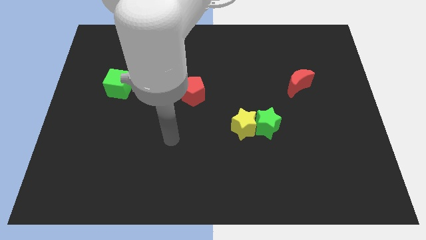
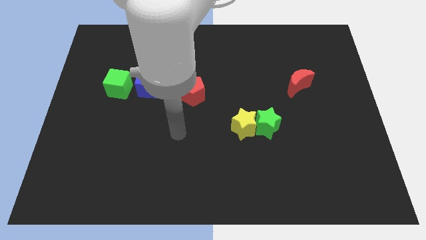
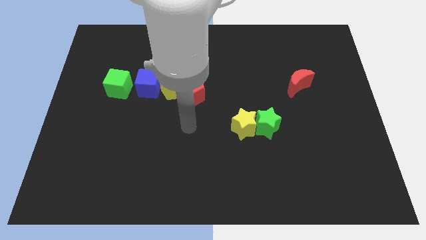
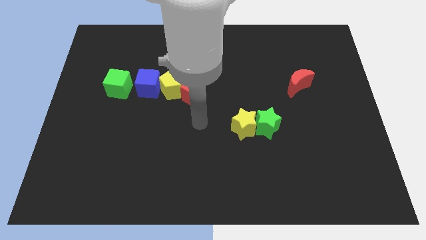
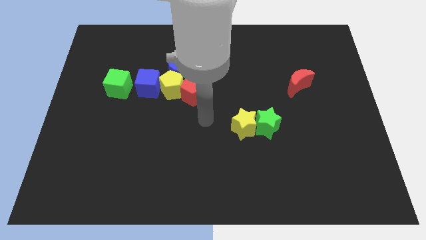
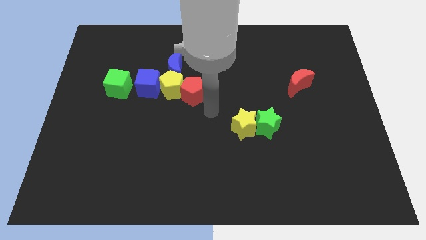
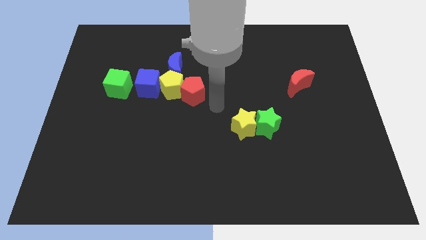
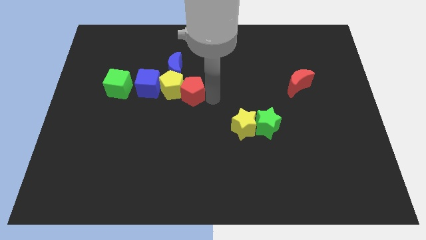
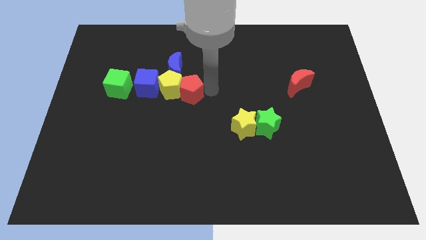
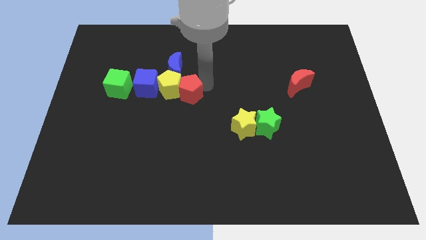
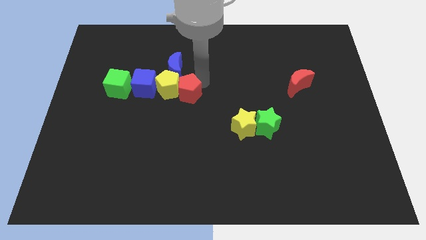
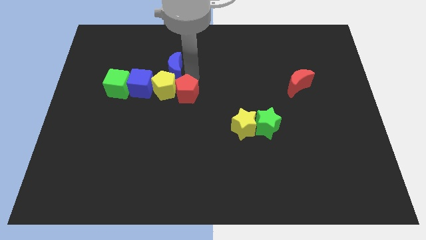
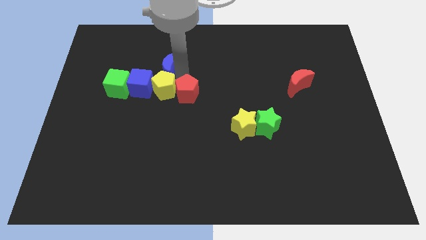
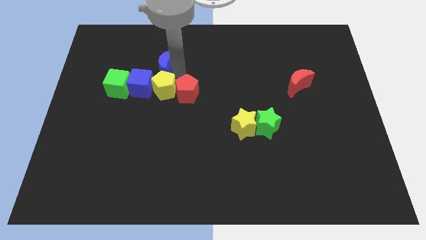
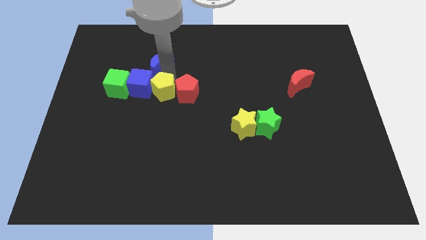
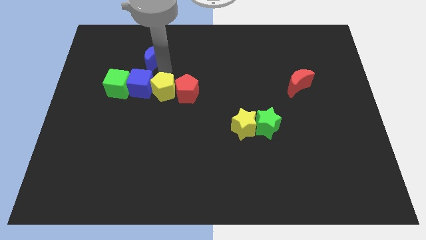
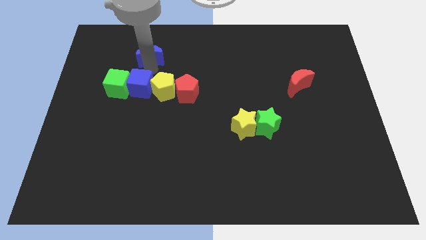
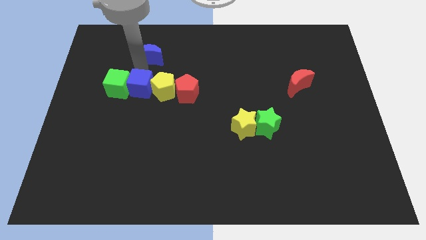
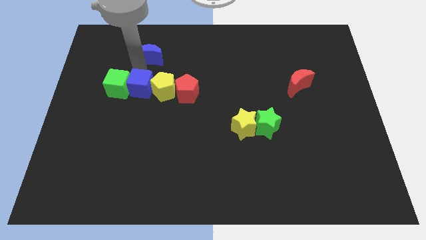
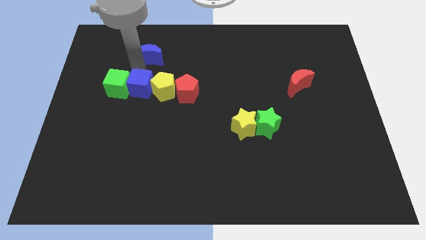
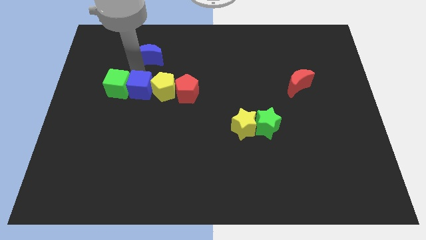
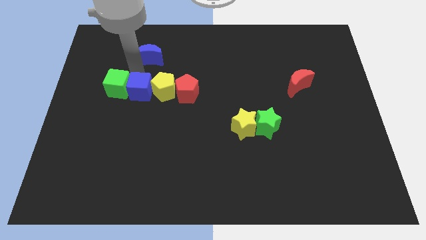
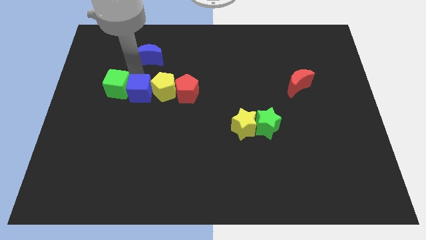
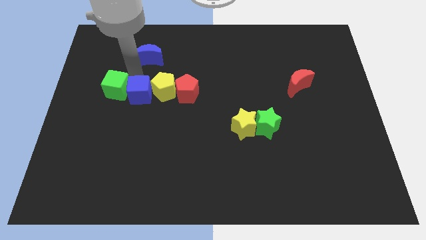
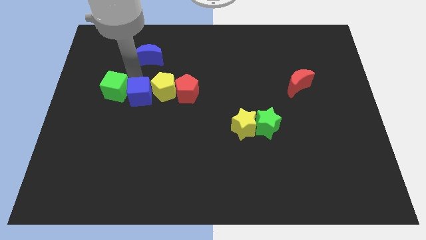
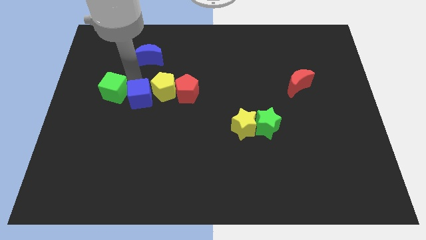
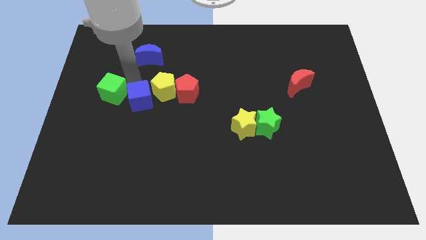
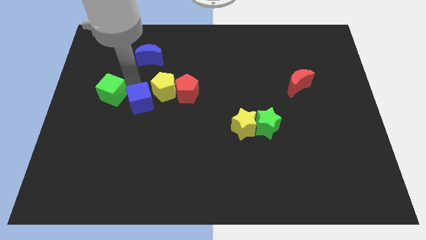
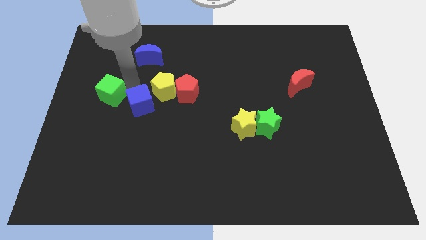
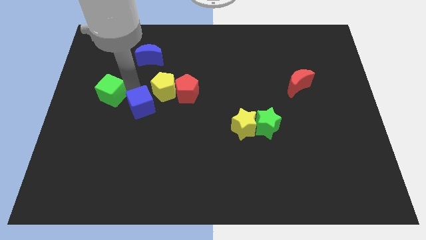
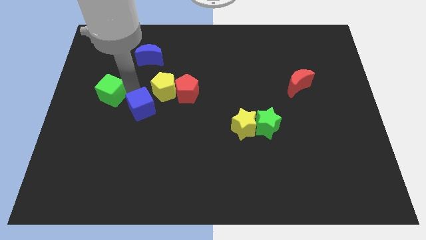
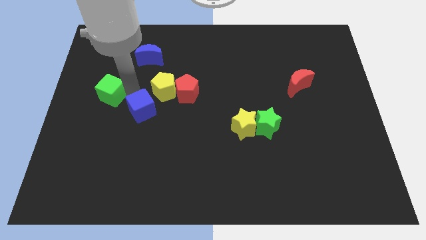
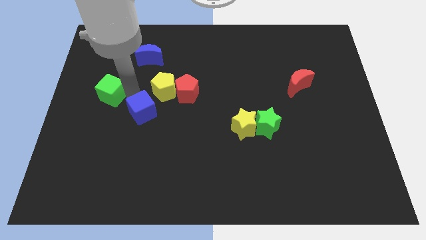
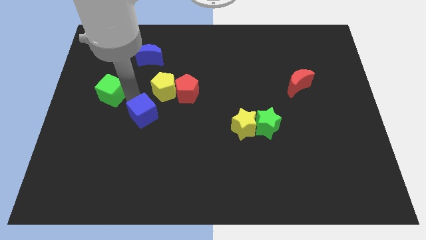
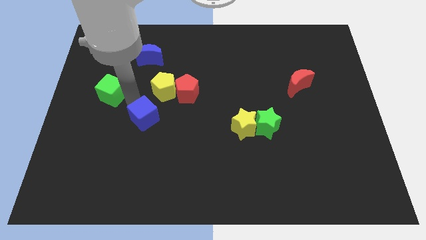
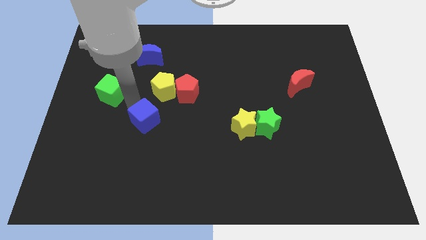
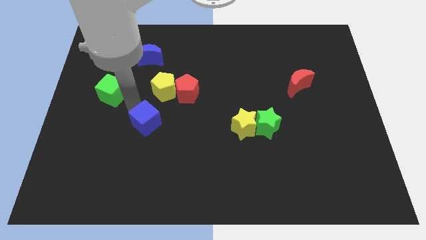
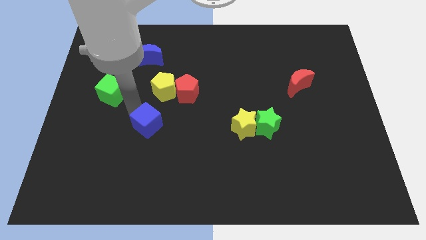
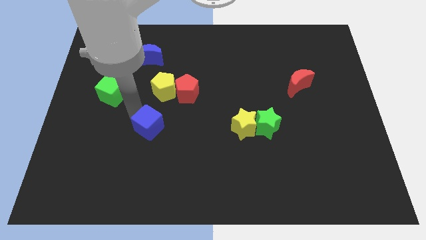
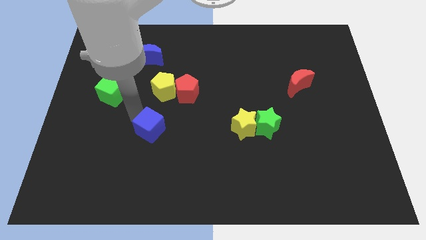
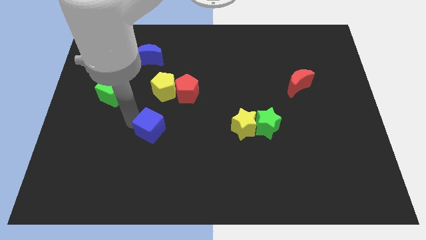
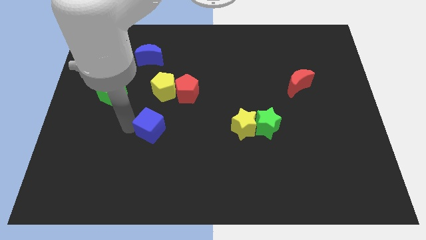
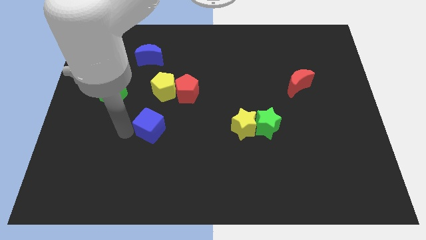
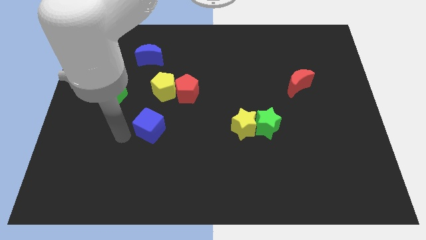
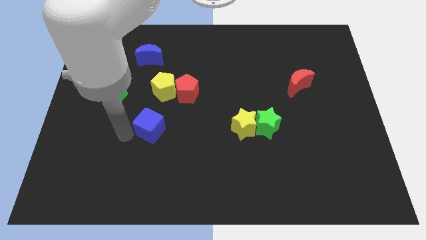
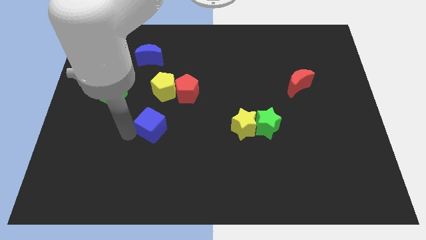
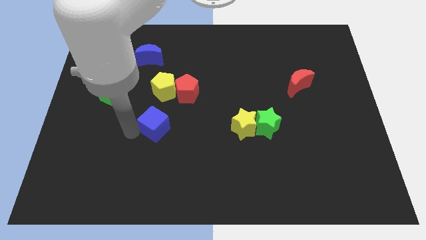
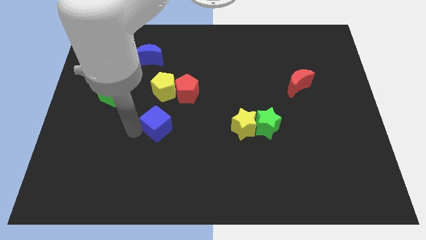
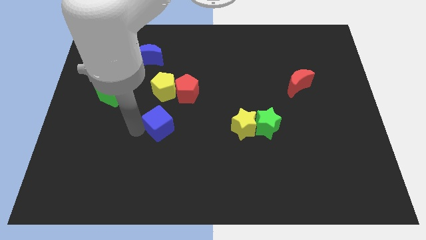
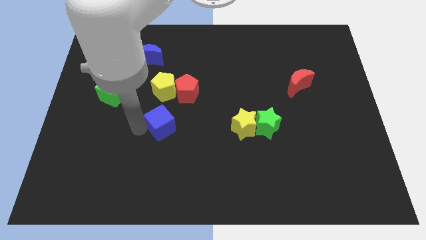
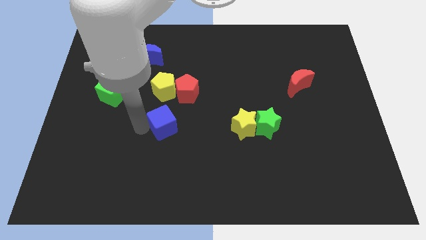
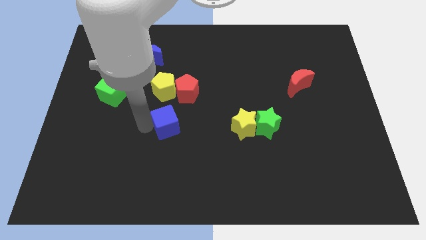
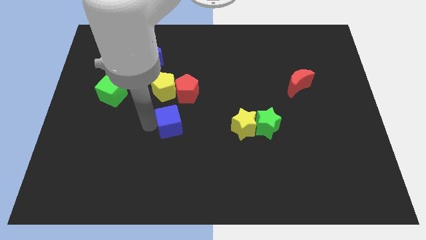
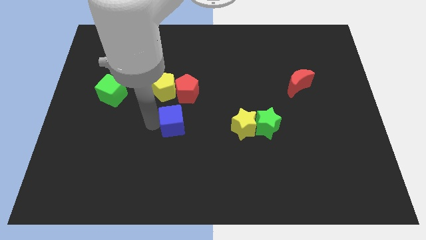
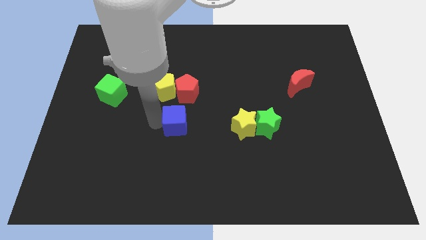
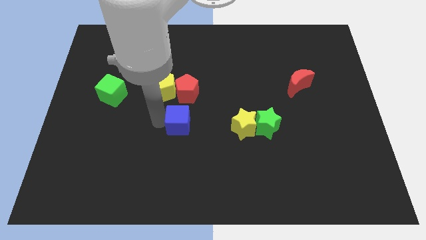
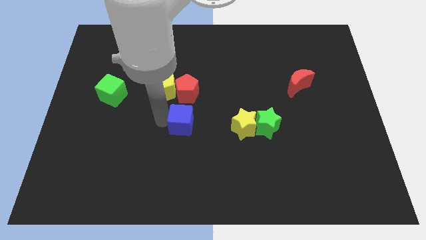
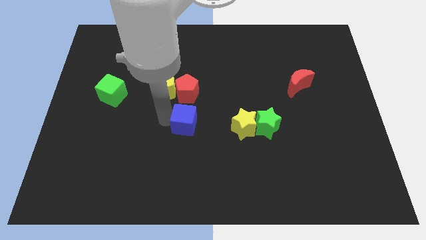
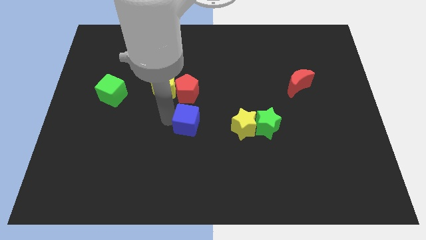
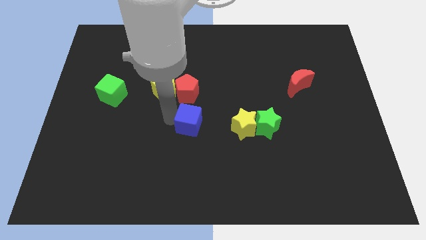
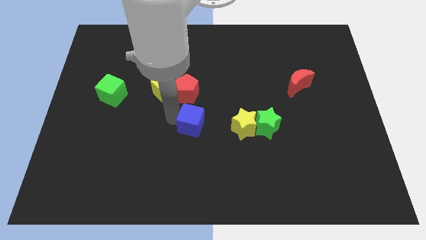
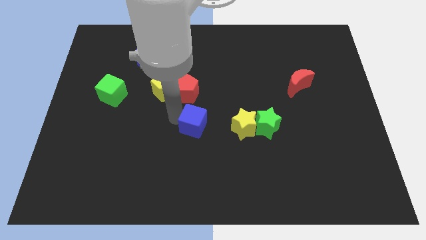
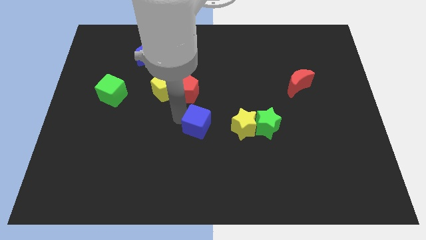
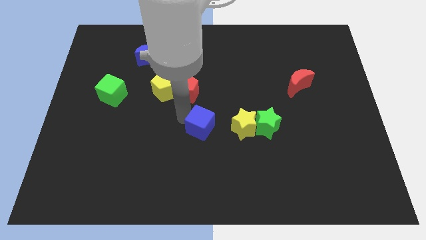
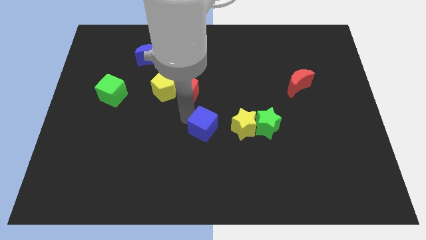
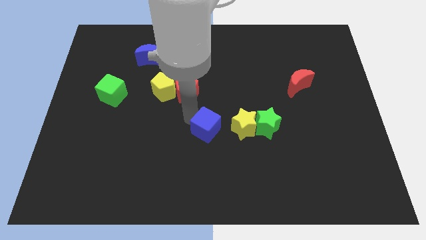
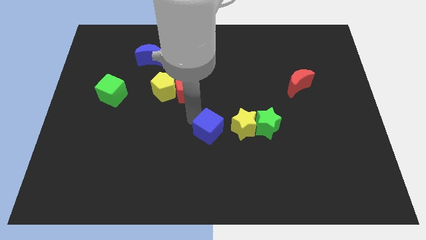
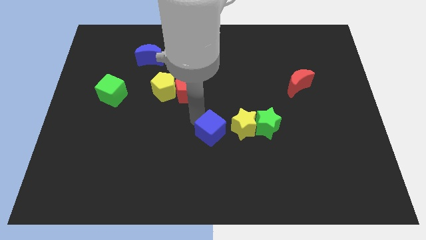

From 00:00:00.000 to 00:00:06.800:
put the blue cube diagonally down and to the left of the yellow star

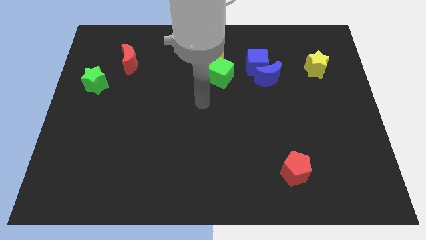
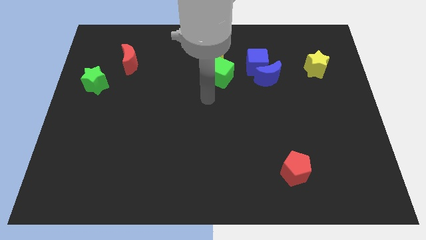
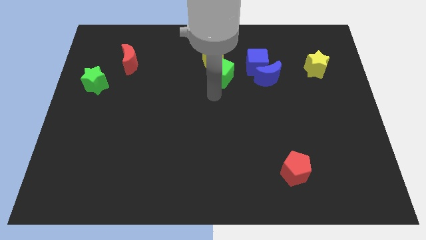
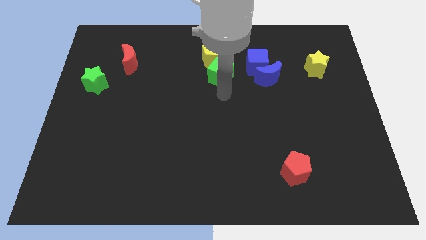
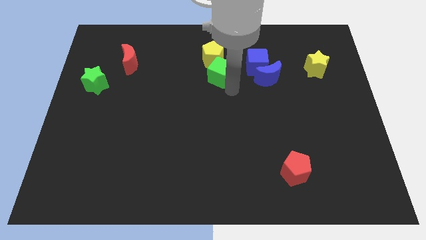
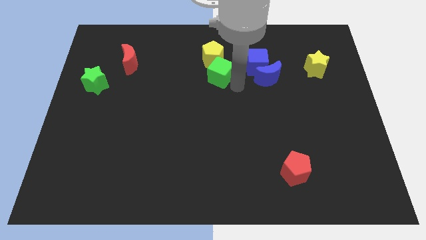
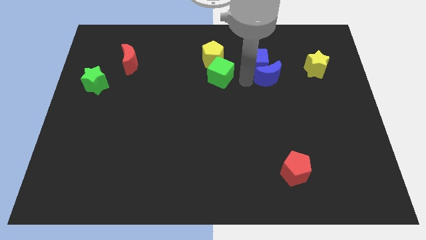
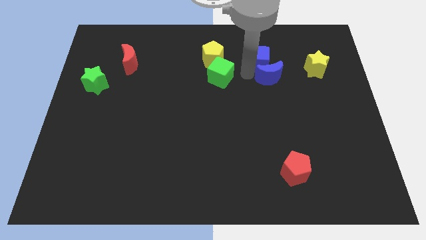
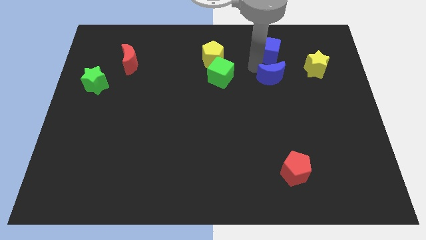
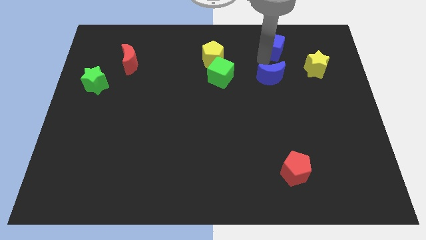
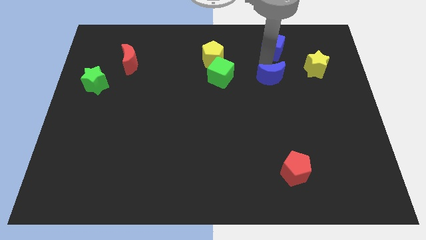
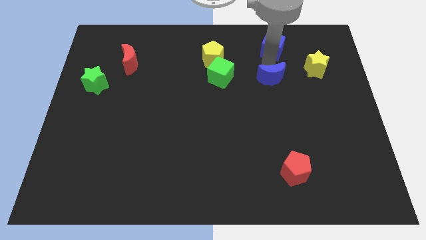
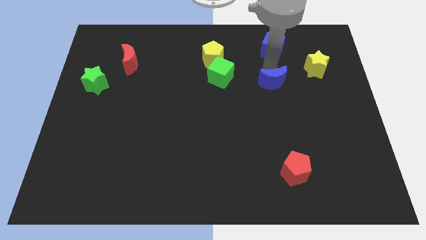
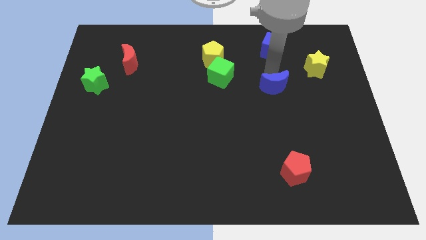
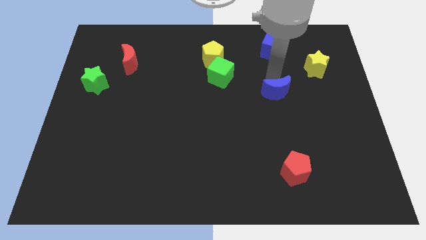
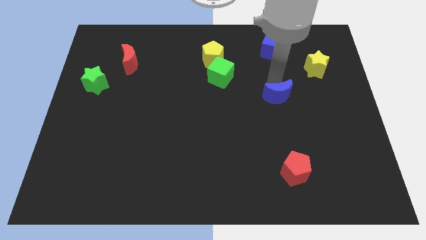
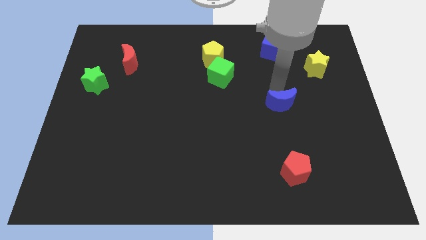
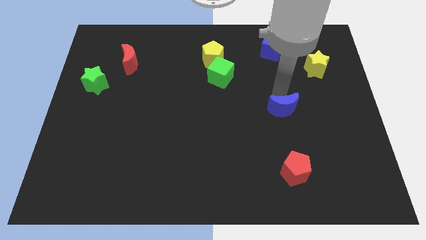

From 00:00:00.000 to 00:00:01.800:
slide the blue moon to the top side of the red pentagon
